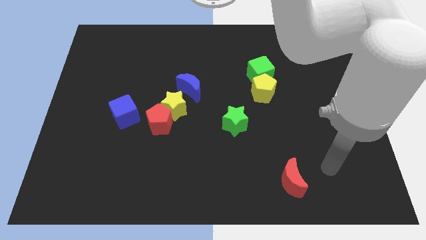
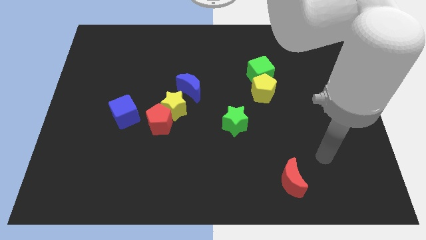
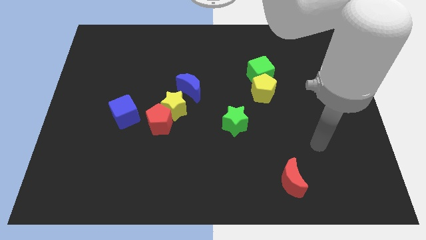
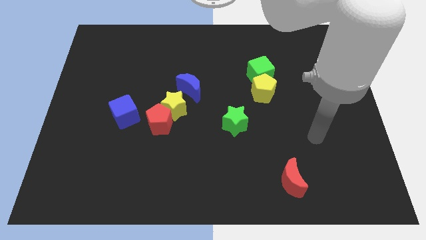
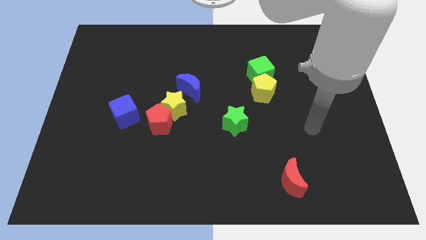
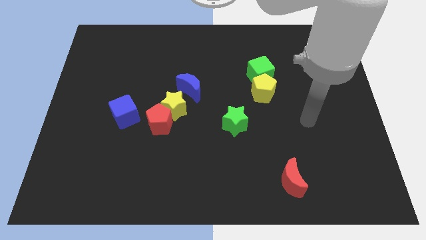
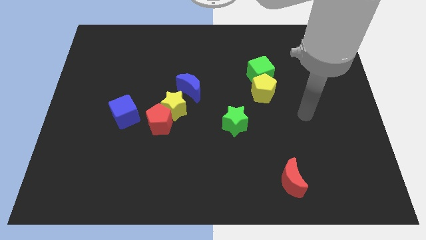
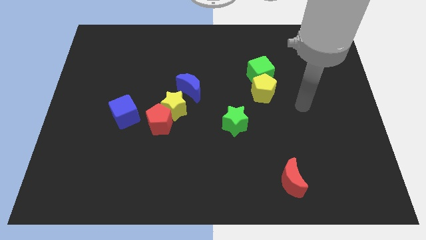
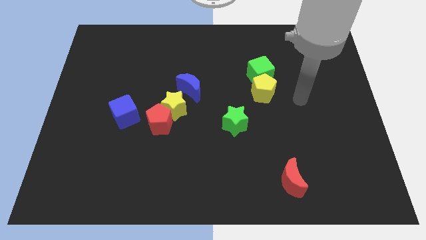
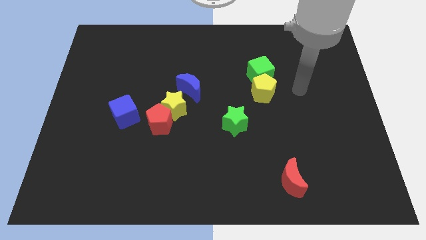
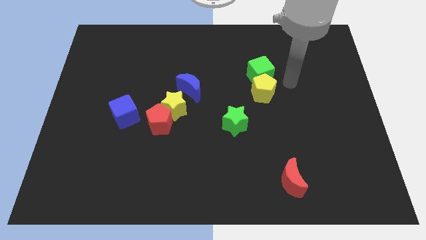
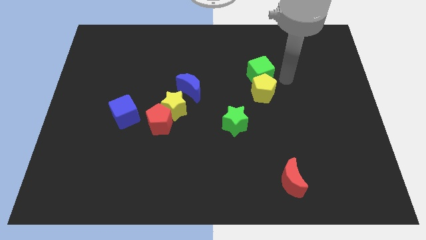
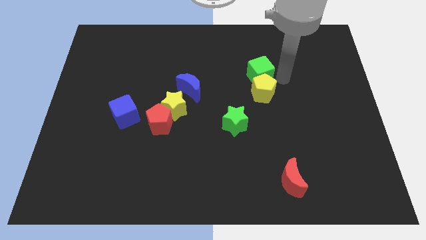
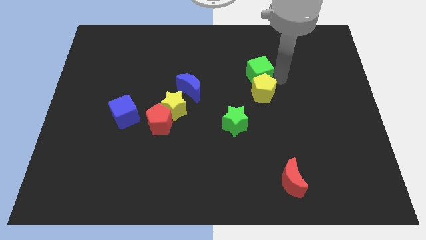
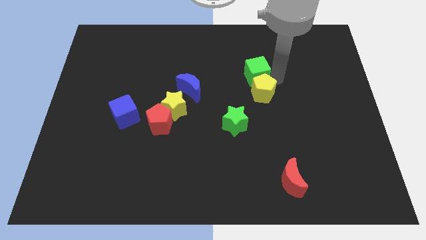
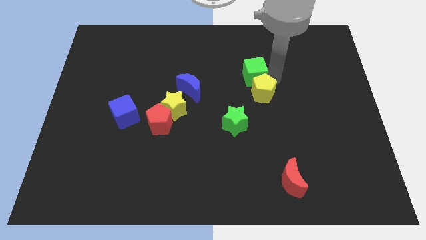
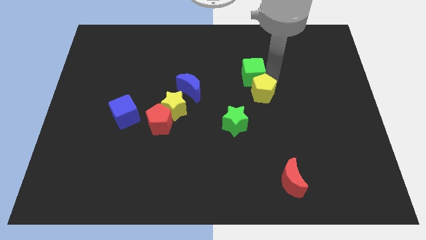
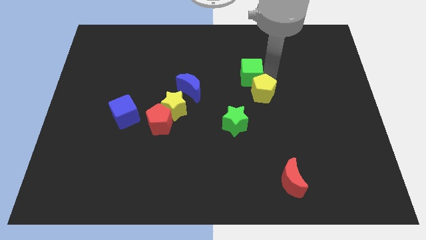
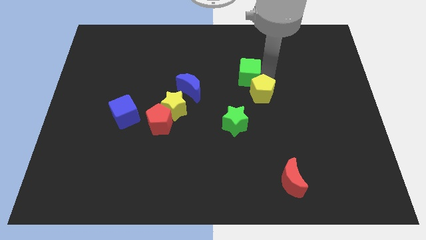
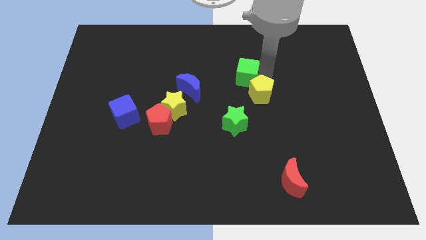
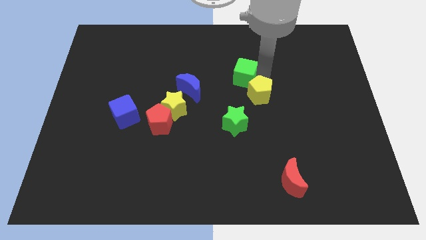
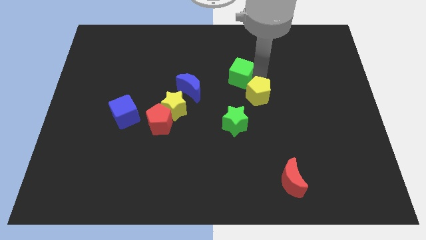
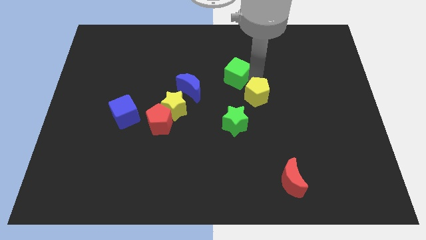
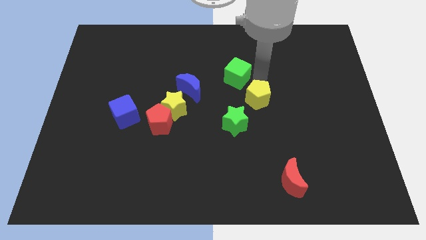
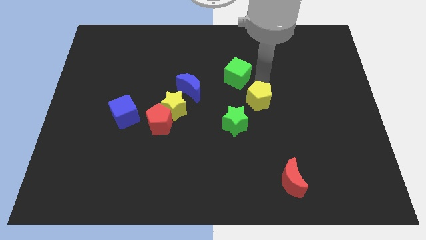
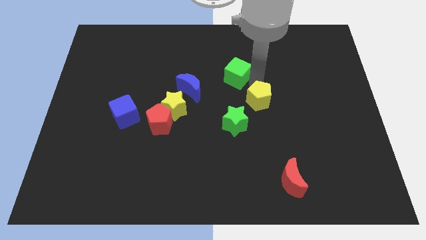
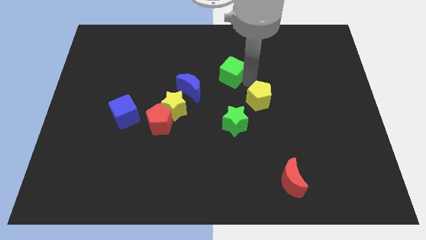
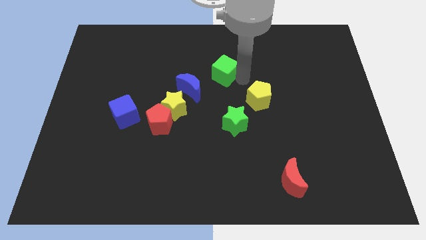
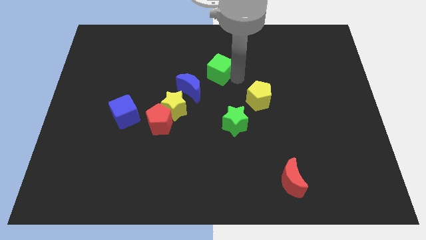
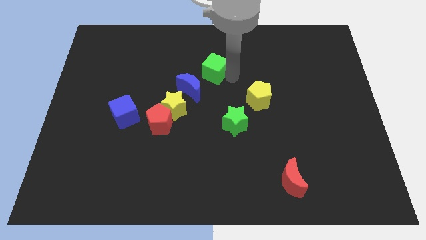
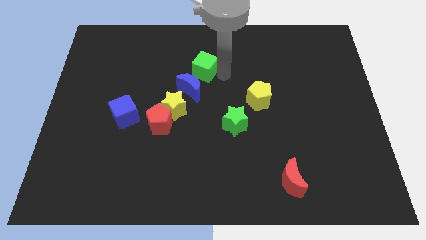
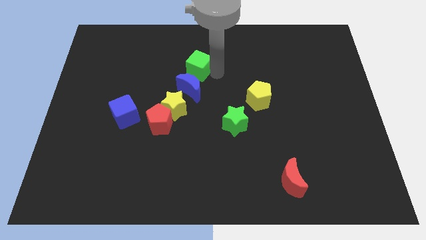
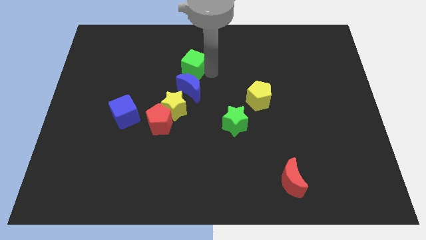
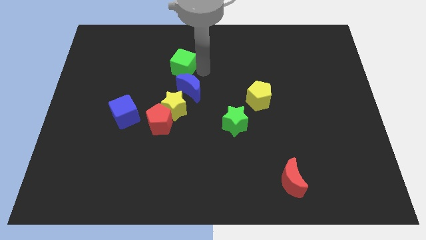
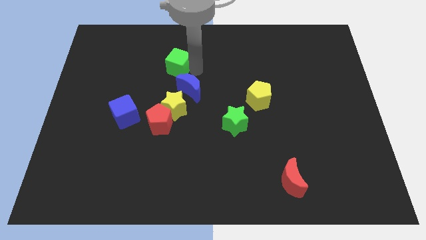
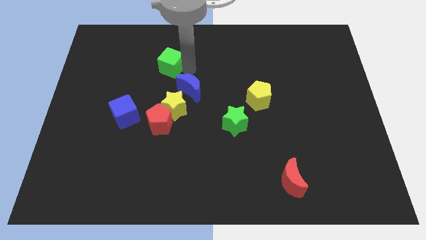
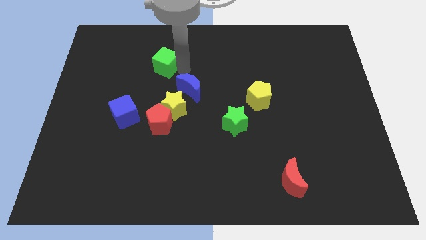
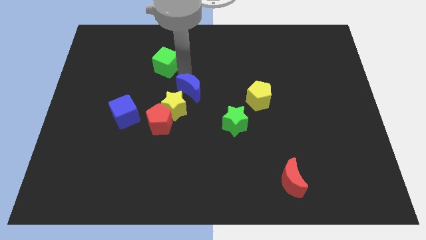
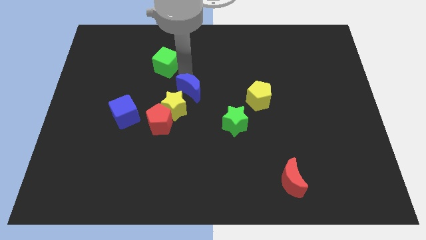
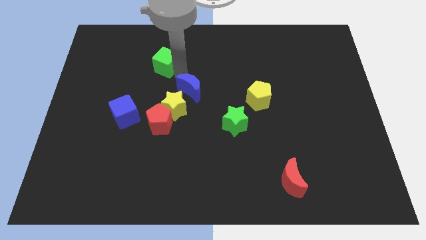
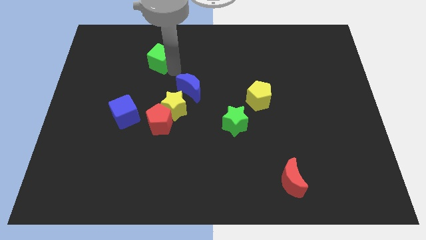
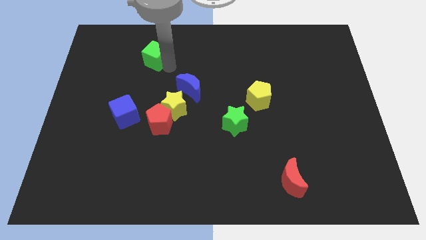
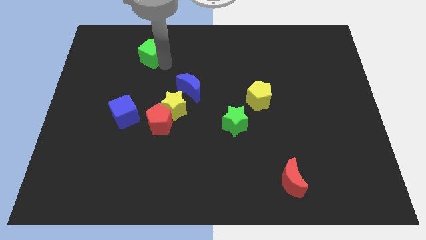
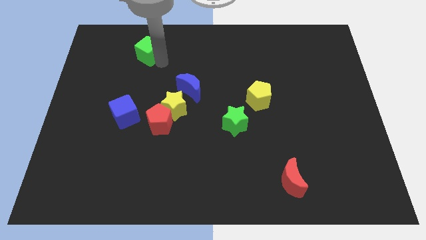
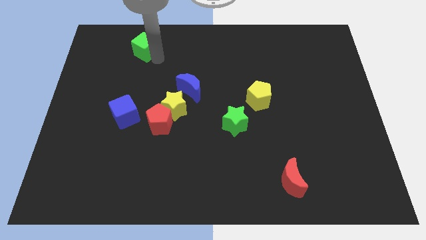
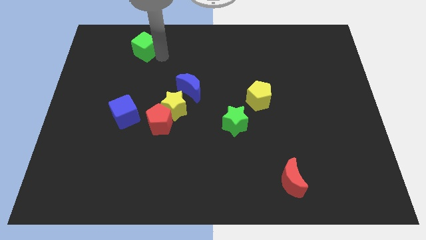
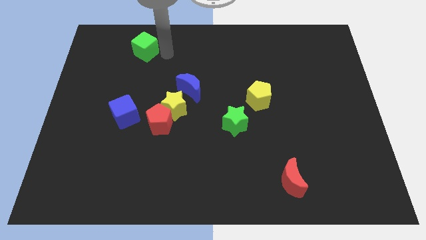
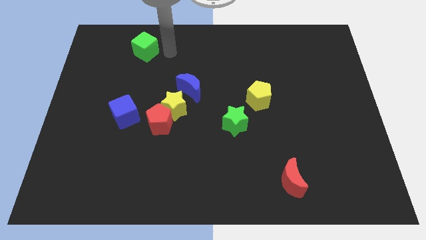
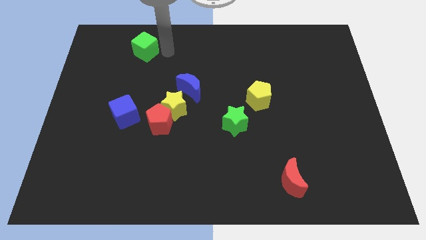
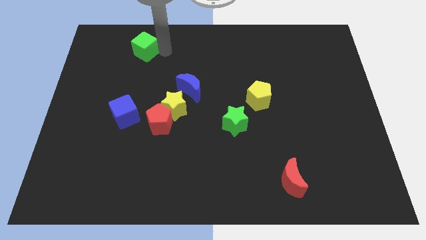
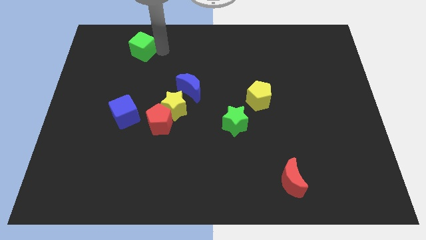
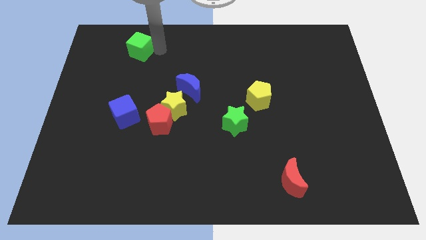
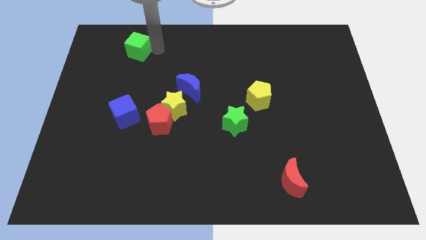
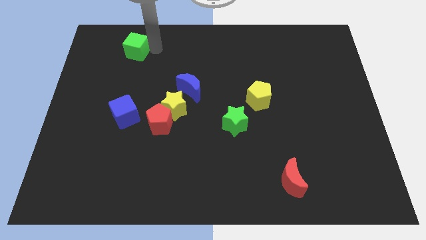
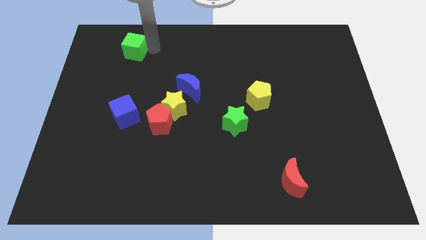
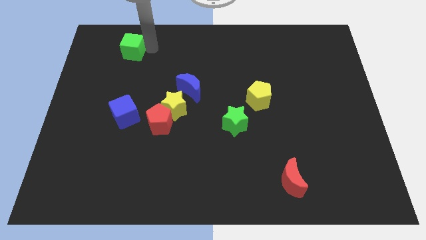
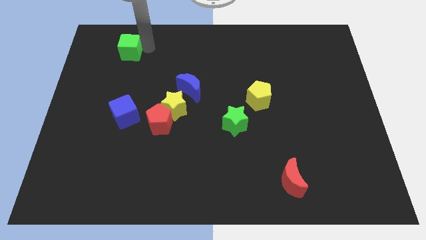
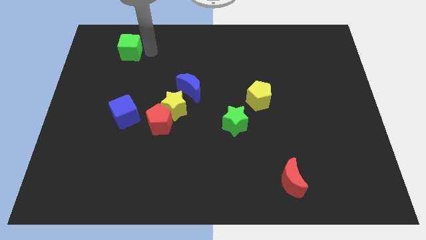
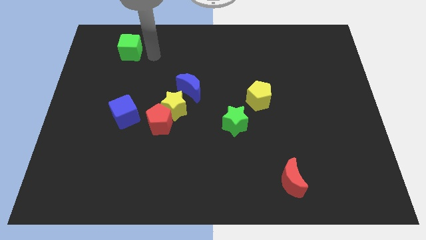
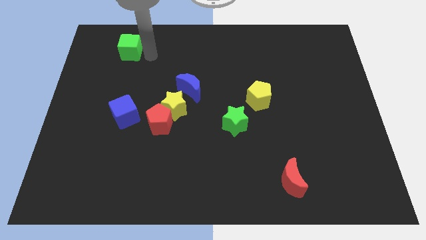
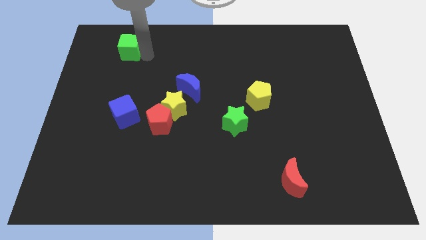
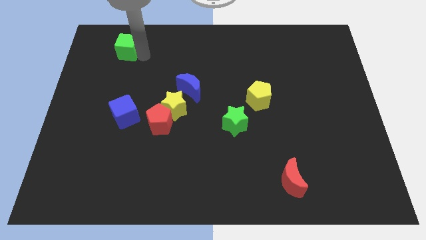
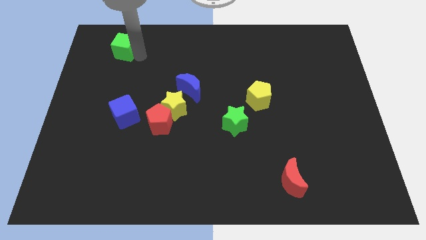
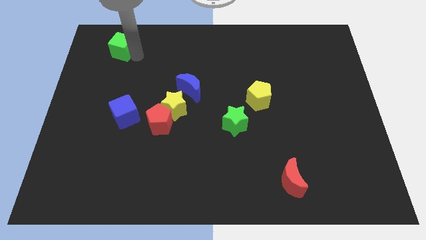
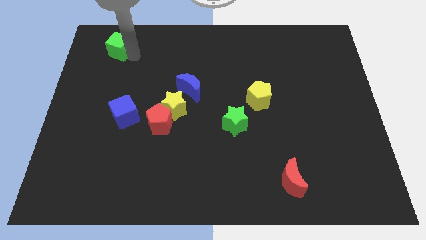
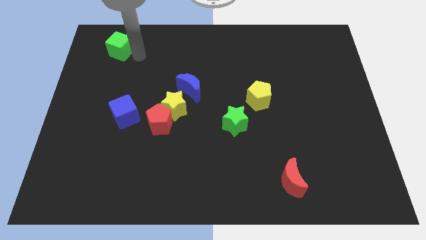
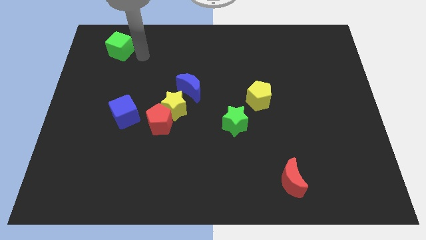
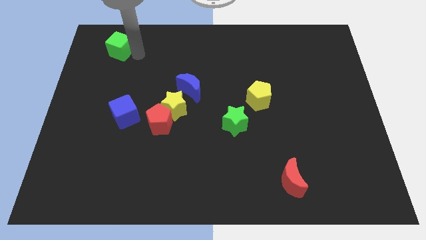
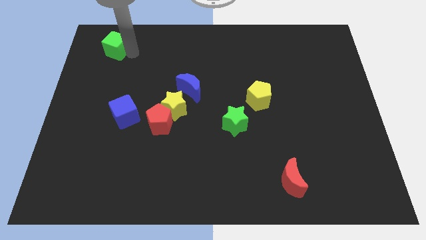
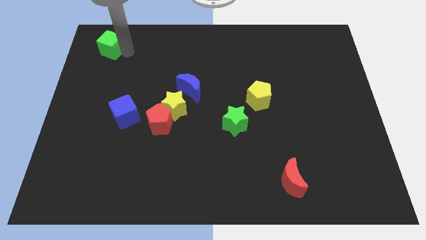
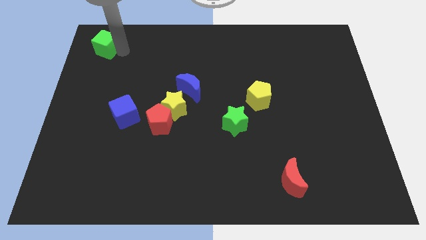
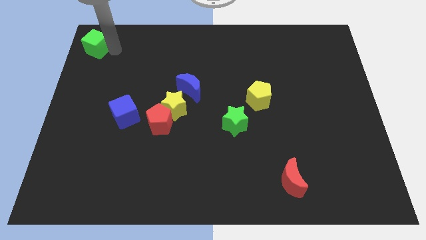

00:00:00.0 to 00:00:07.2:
slide the green cube to the upper left corner
